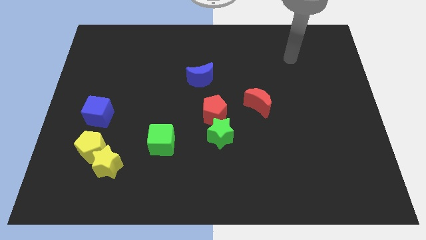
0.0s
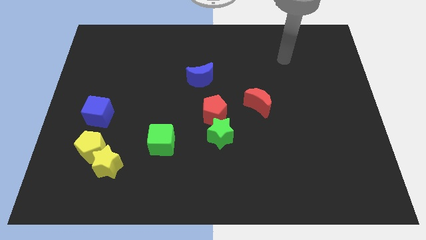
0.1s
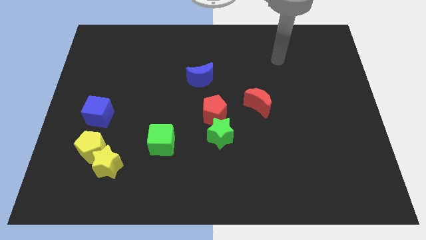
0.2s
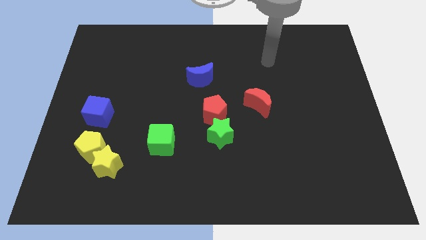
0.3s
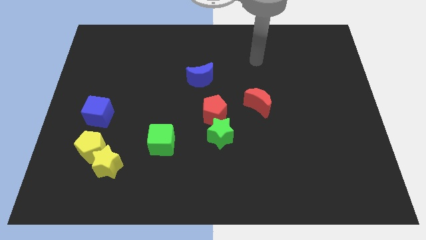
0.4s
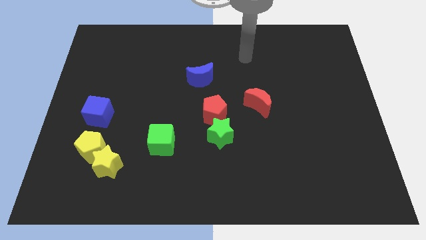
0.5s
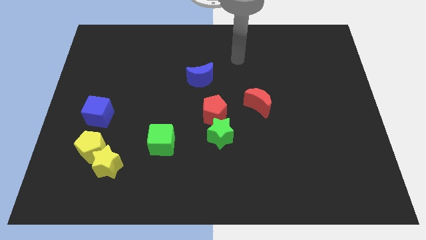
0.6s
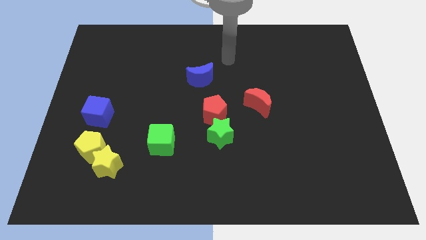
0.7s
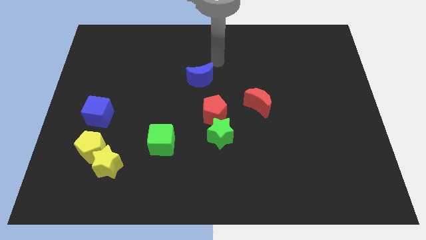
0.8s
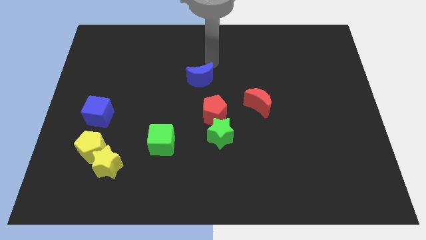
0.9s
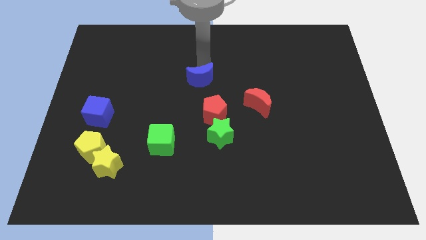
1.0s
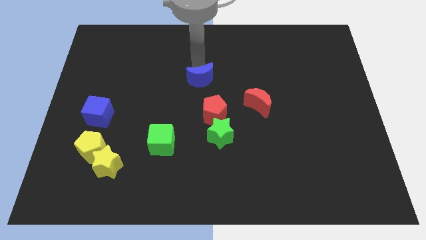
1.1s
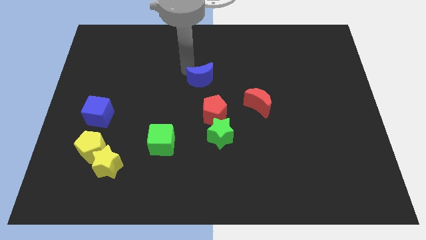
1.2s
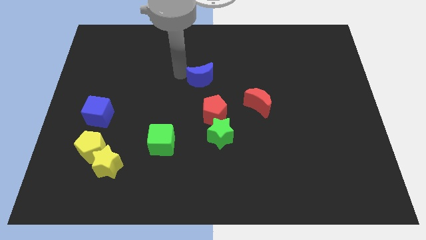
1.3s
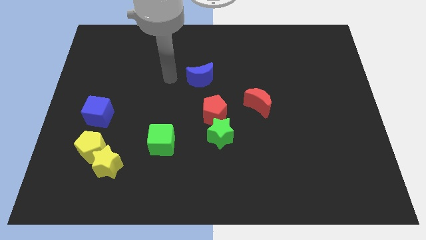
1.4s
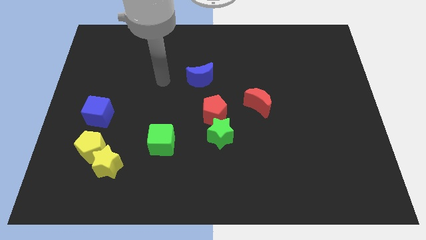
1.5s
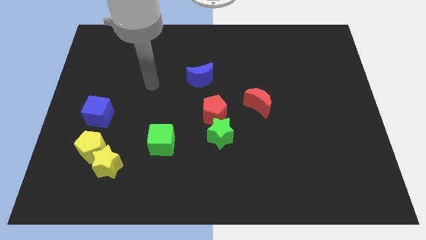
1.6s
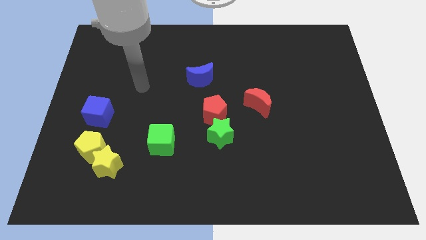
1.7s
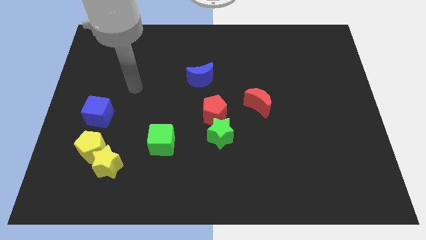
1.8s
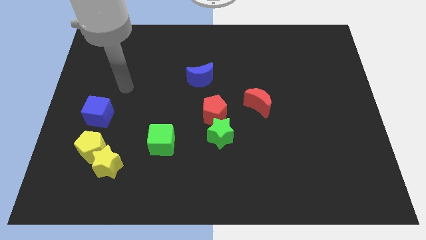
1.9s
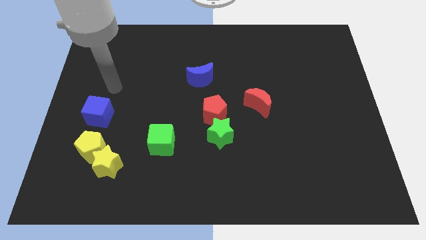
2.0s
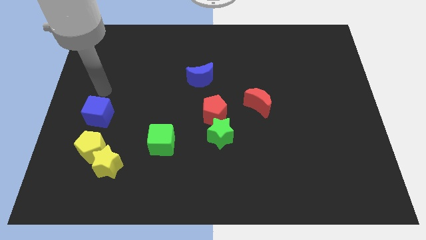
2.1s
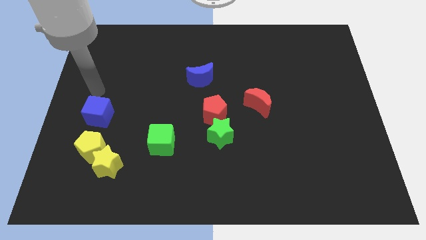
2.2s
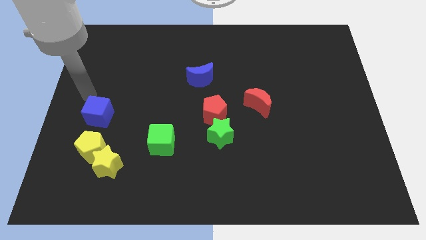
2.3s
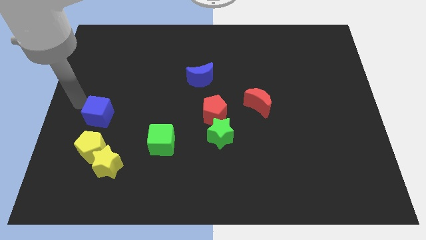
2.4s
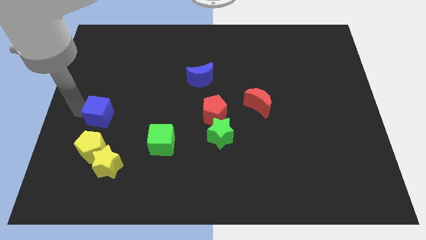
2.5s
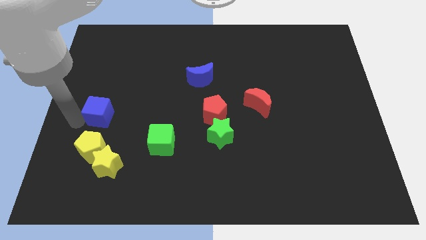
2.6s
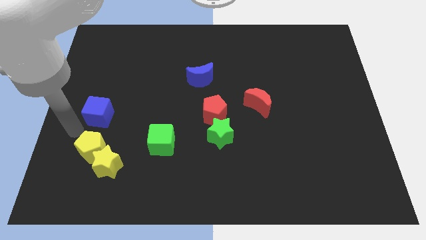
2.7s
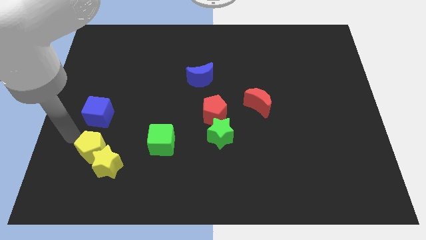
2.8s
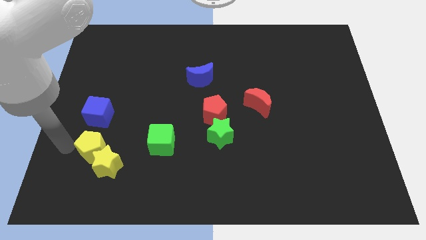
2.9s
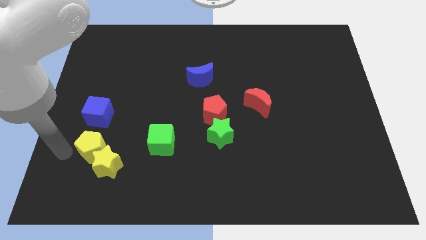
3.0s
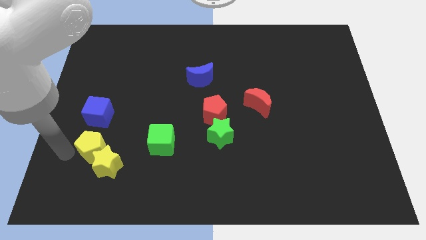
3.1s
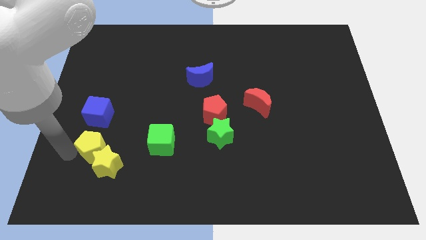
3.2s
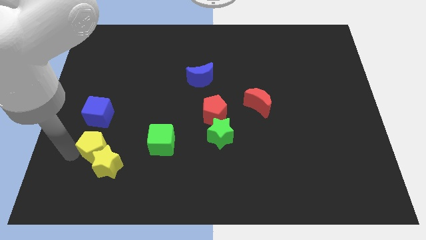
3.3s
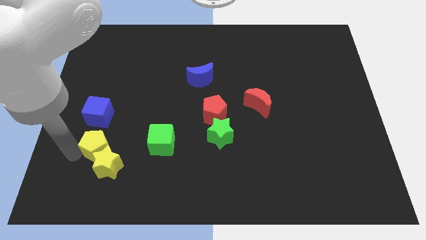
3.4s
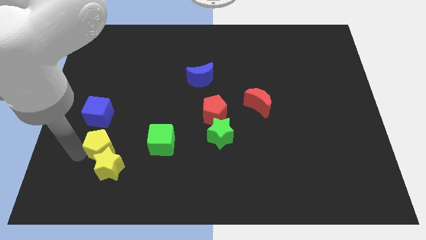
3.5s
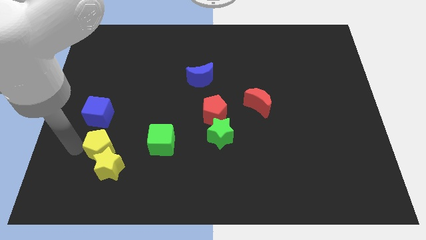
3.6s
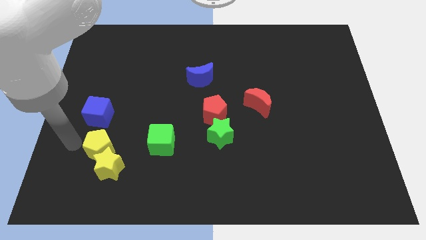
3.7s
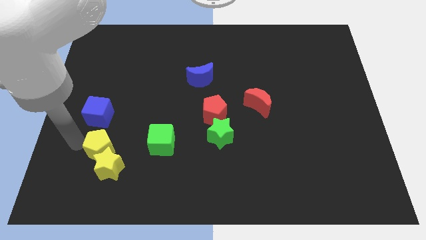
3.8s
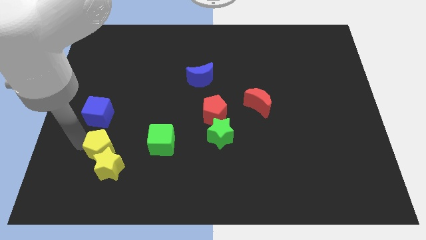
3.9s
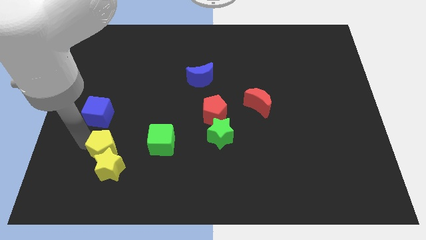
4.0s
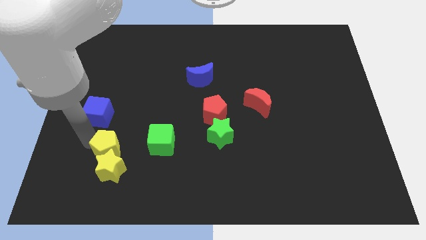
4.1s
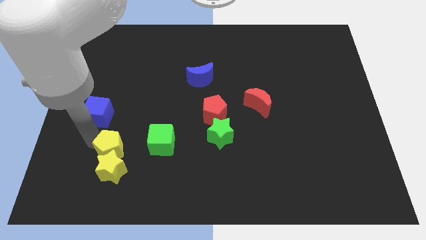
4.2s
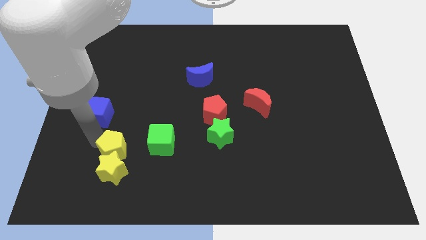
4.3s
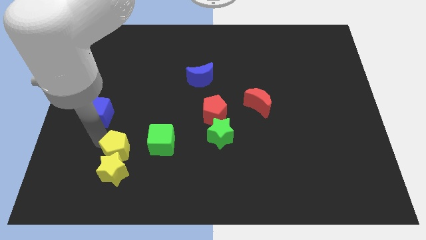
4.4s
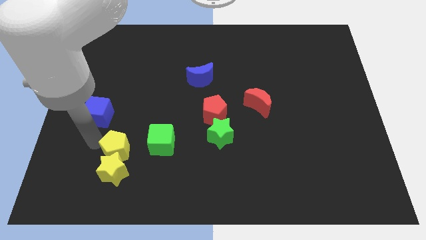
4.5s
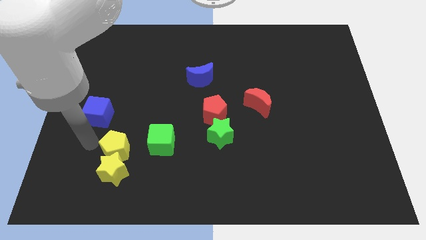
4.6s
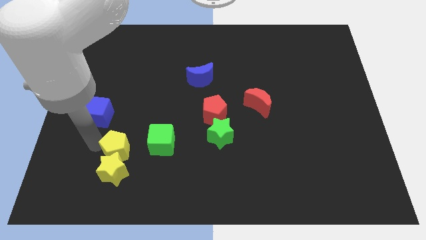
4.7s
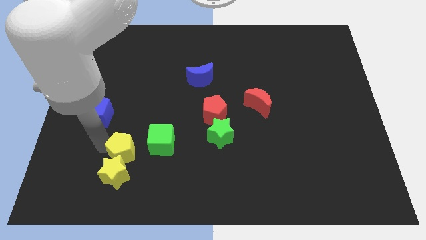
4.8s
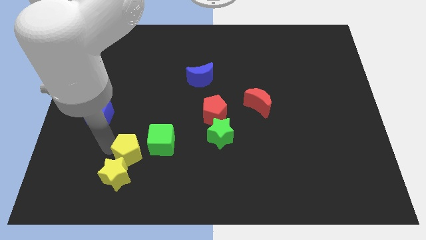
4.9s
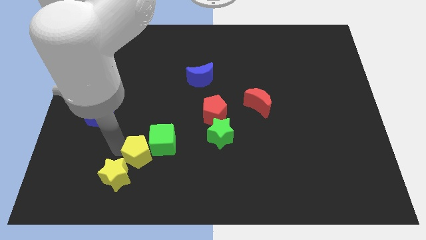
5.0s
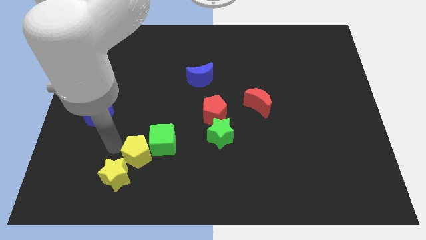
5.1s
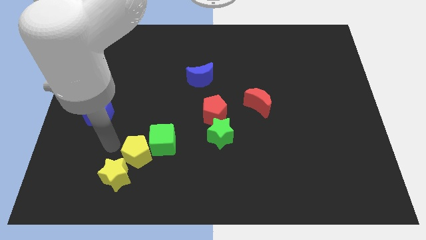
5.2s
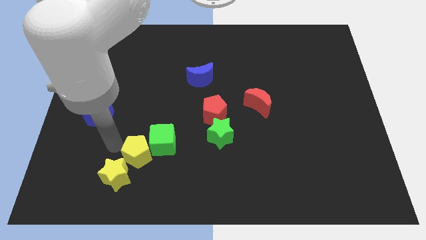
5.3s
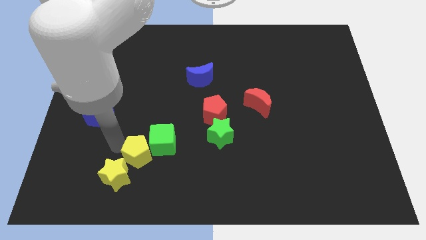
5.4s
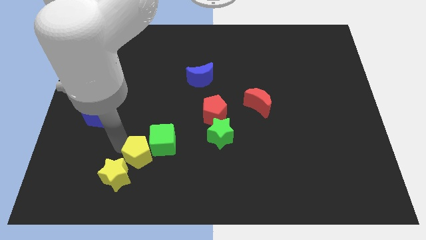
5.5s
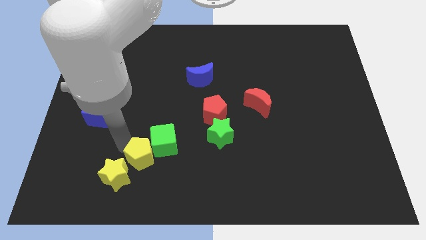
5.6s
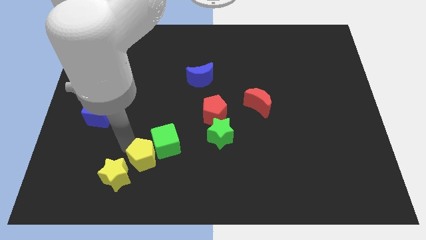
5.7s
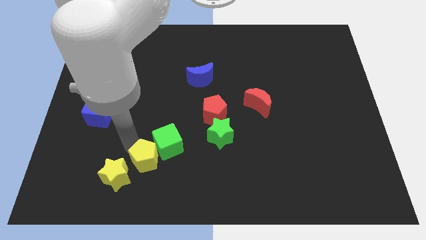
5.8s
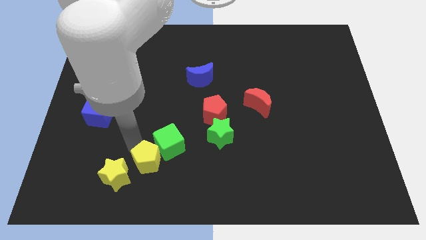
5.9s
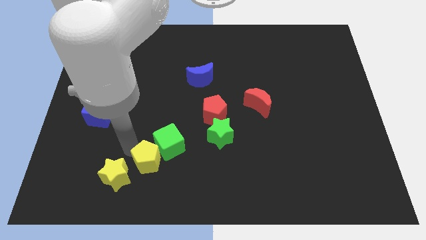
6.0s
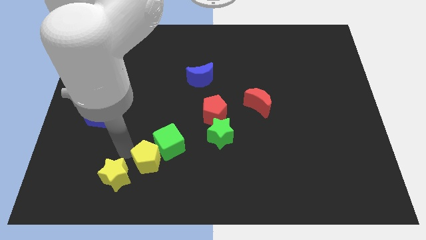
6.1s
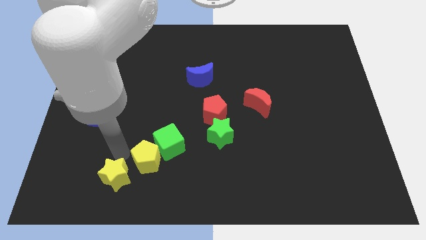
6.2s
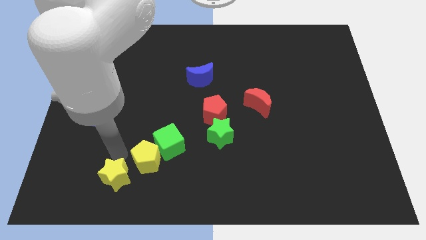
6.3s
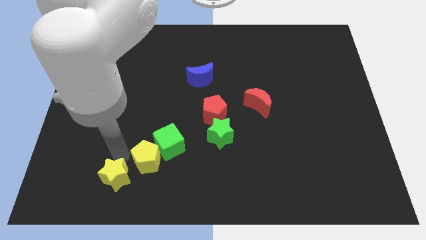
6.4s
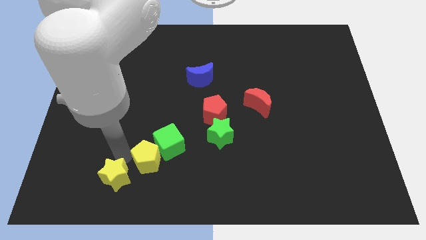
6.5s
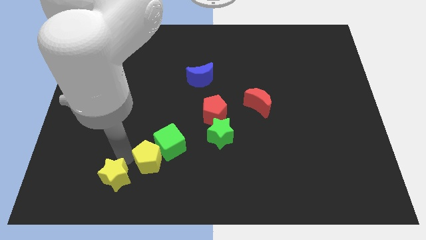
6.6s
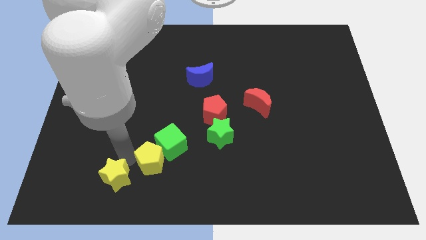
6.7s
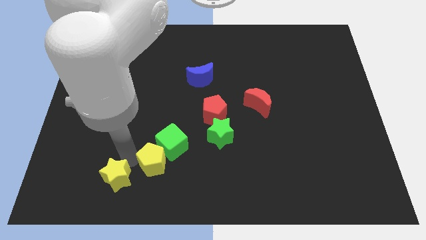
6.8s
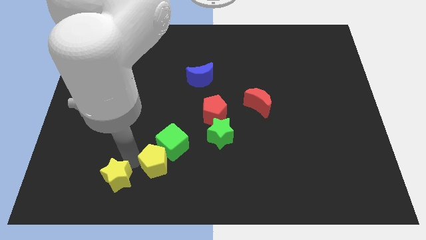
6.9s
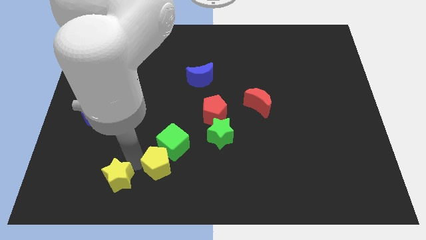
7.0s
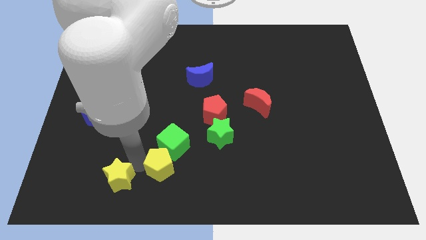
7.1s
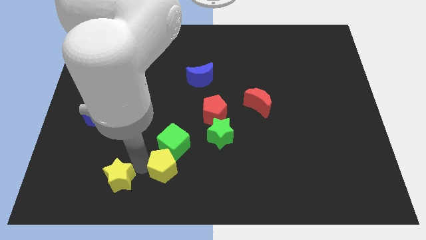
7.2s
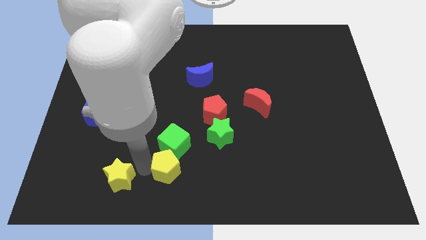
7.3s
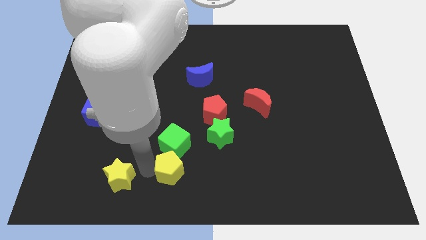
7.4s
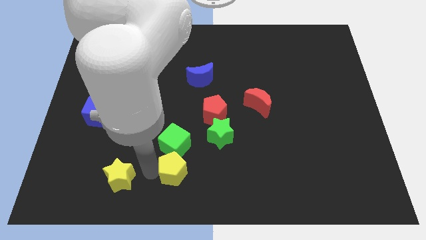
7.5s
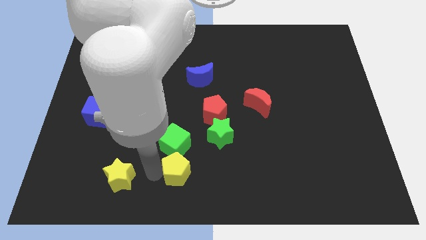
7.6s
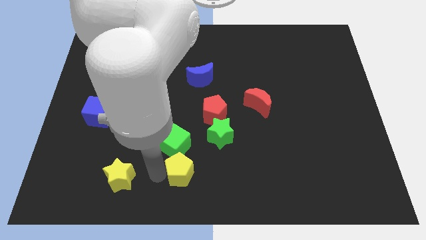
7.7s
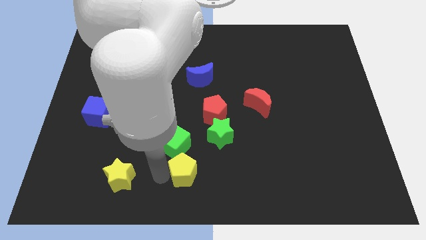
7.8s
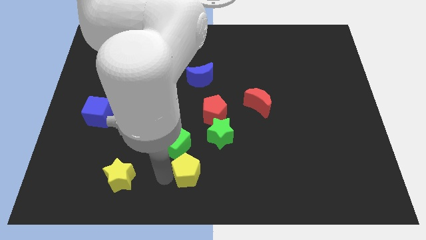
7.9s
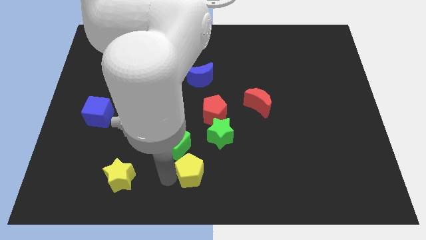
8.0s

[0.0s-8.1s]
move the yellow pentagon to the right
